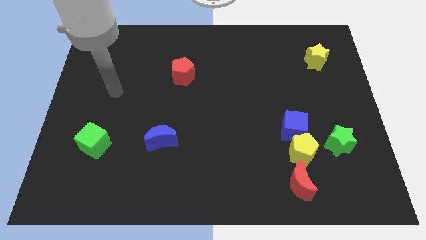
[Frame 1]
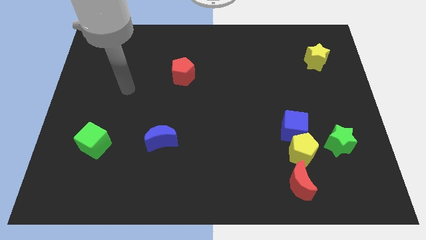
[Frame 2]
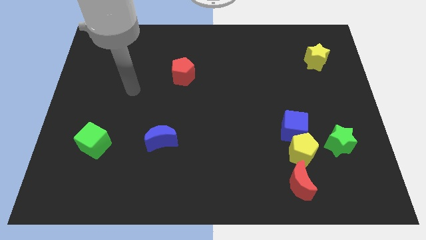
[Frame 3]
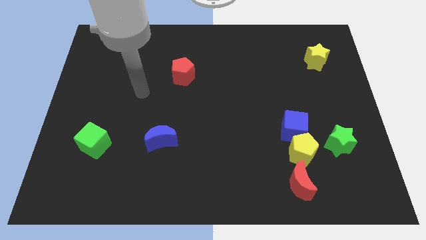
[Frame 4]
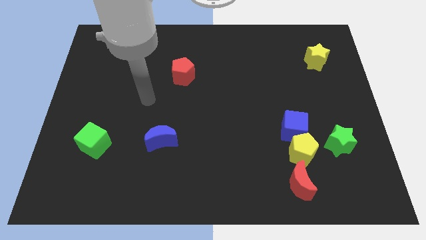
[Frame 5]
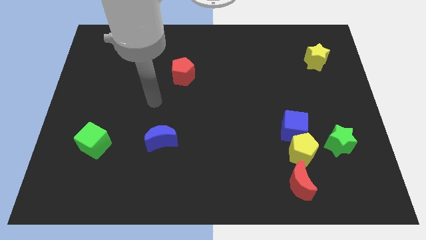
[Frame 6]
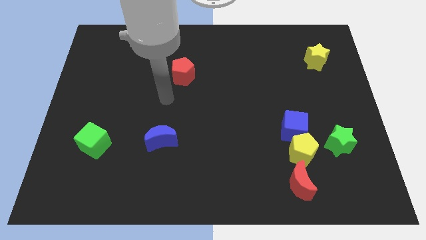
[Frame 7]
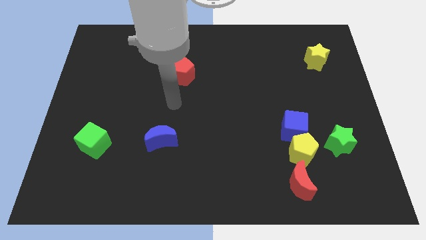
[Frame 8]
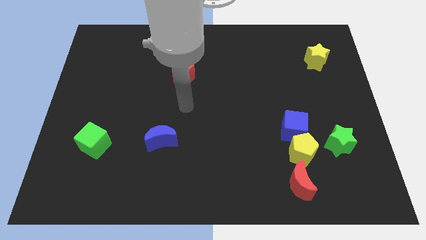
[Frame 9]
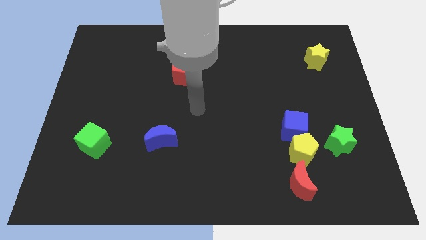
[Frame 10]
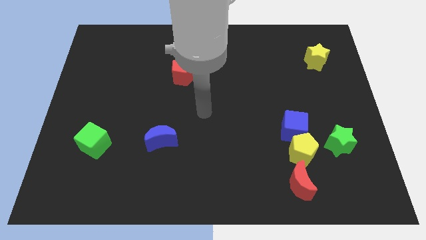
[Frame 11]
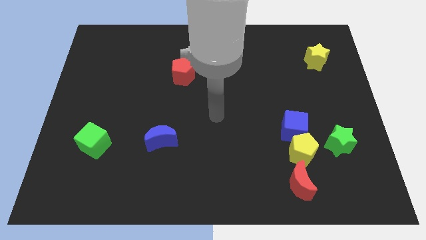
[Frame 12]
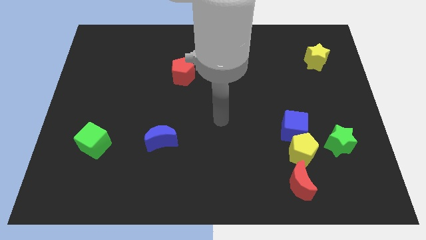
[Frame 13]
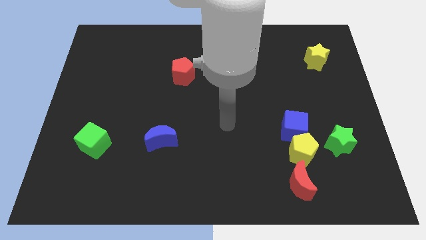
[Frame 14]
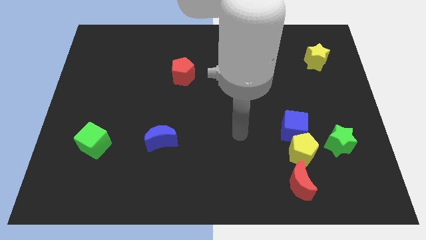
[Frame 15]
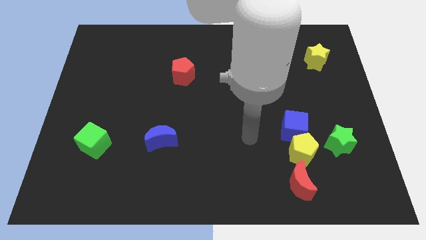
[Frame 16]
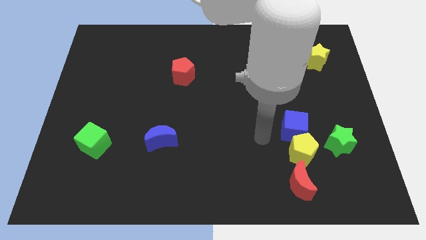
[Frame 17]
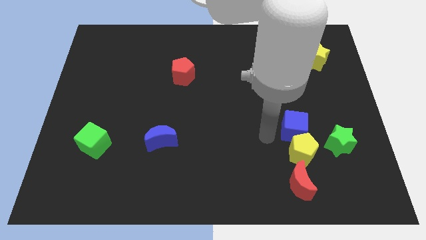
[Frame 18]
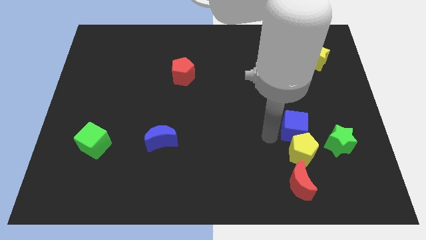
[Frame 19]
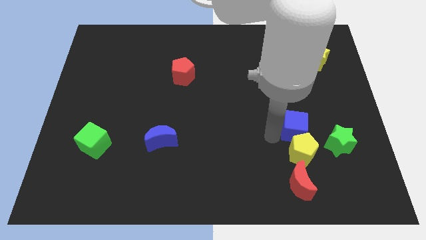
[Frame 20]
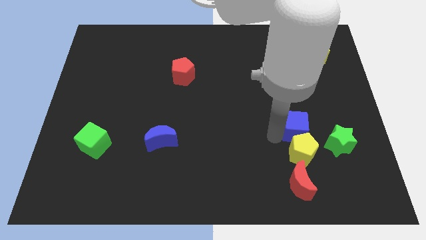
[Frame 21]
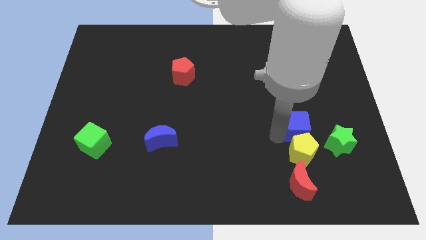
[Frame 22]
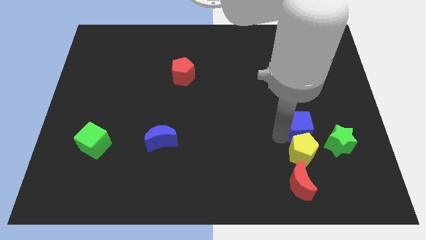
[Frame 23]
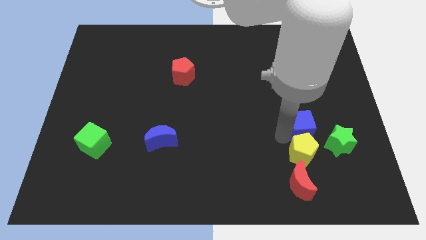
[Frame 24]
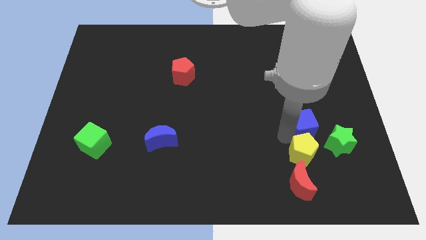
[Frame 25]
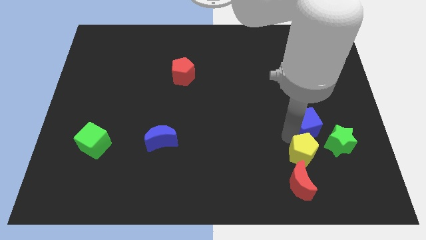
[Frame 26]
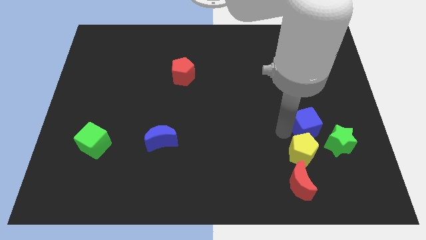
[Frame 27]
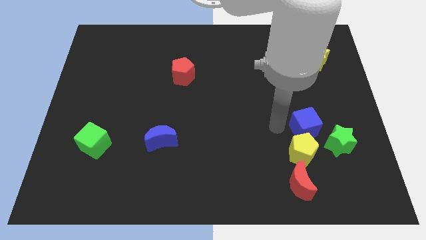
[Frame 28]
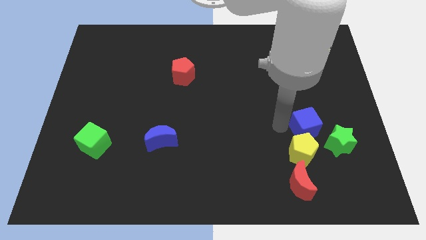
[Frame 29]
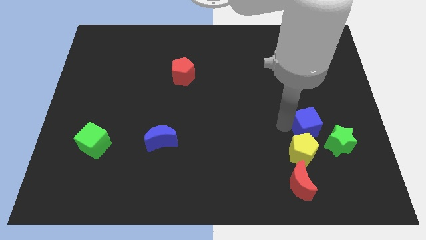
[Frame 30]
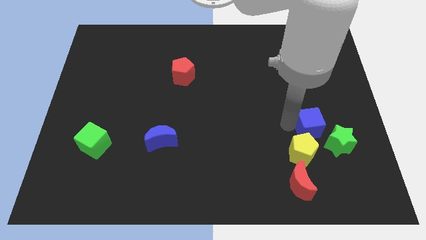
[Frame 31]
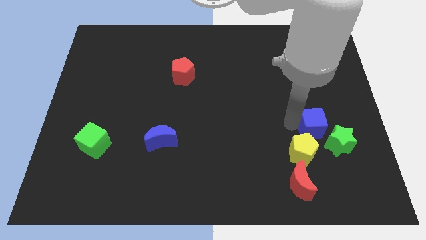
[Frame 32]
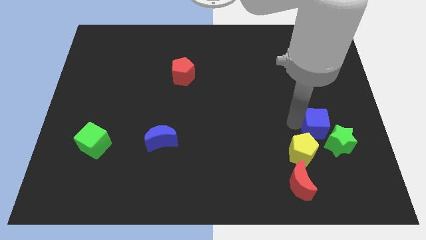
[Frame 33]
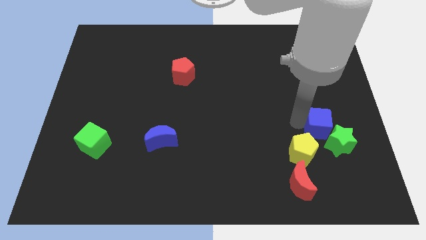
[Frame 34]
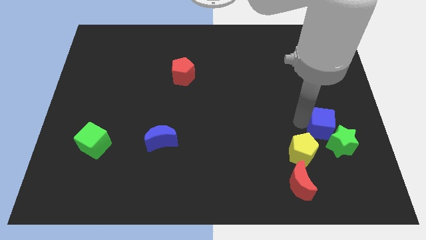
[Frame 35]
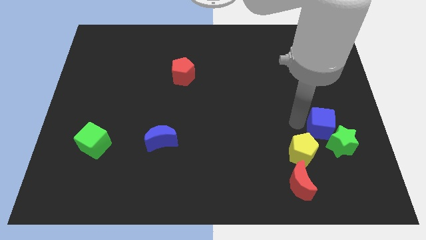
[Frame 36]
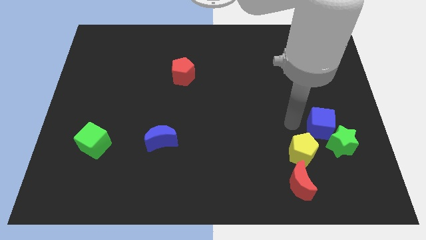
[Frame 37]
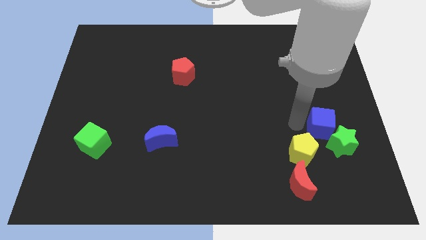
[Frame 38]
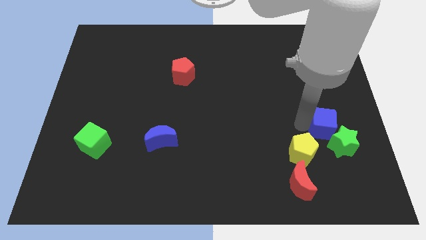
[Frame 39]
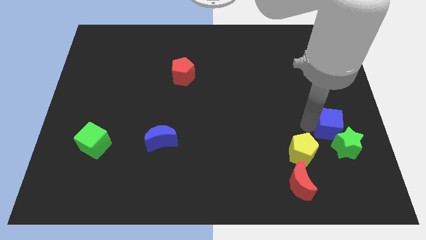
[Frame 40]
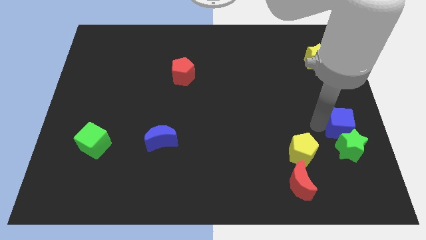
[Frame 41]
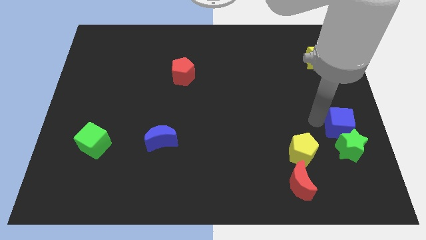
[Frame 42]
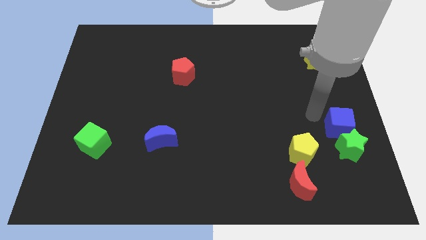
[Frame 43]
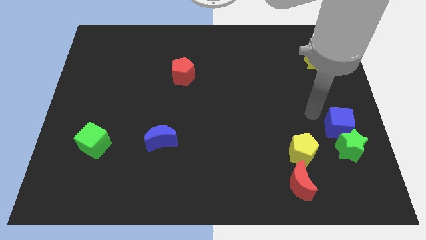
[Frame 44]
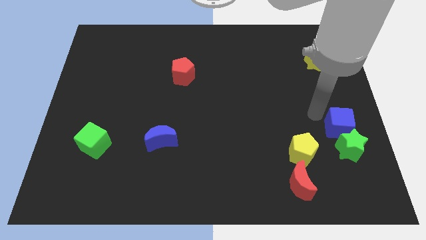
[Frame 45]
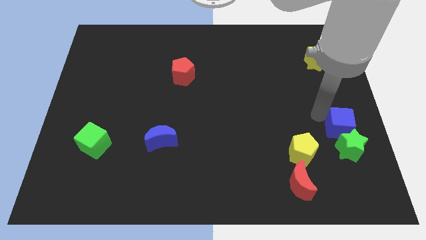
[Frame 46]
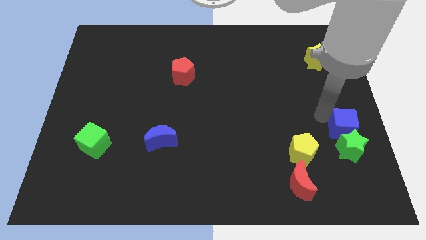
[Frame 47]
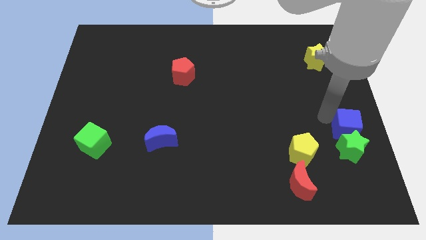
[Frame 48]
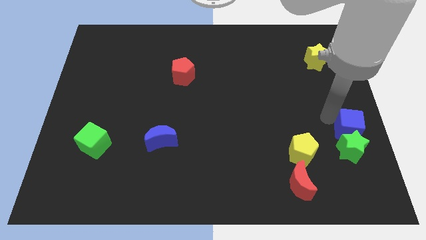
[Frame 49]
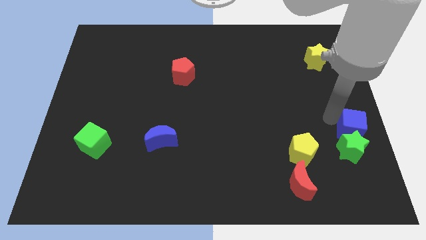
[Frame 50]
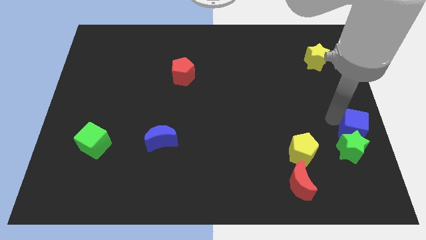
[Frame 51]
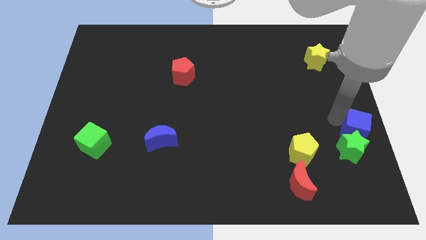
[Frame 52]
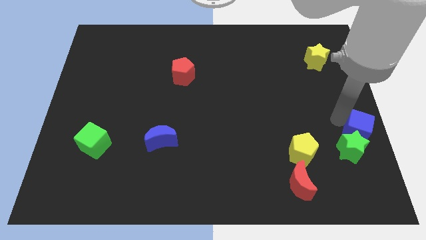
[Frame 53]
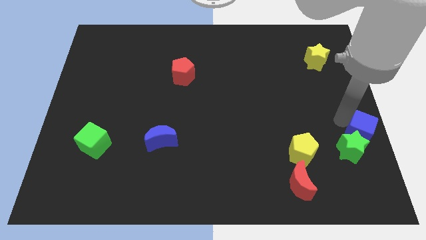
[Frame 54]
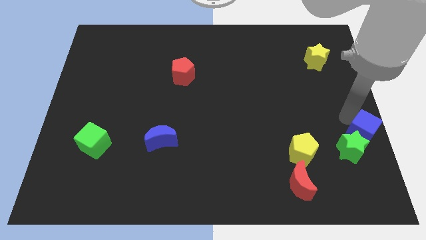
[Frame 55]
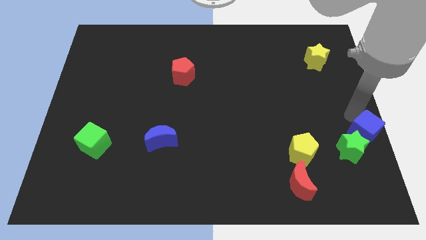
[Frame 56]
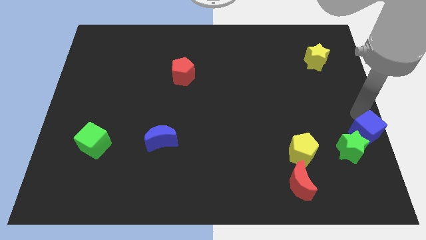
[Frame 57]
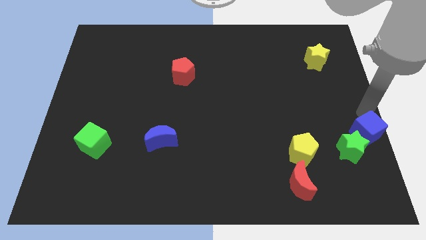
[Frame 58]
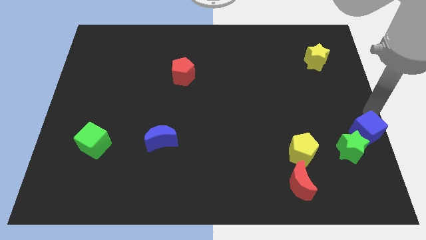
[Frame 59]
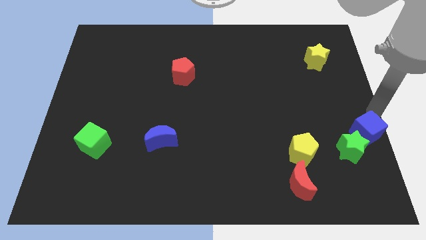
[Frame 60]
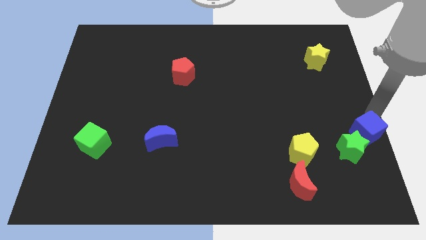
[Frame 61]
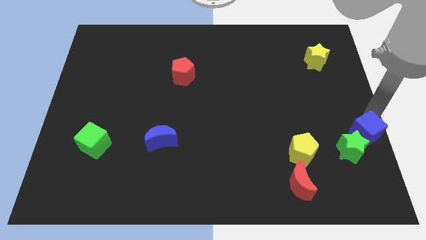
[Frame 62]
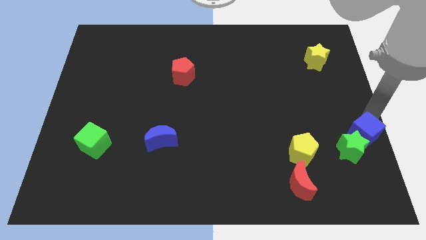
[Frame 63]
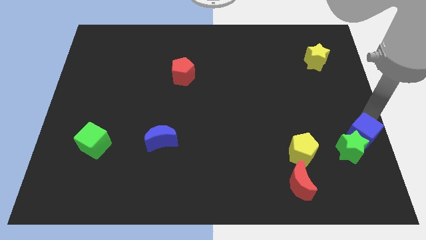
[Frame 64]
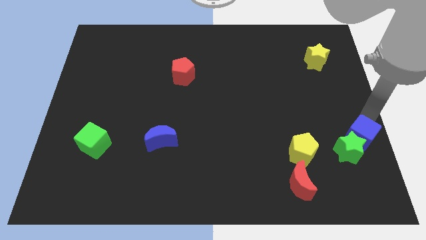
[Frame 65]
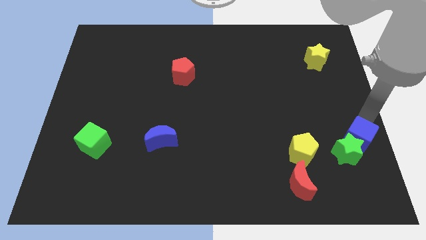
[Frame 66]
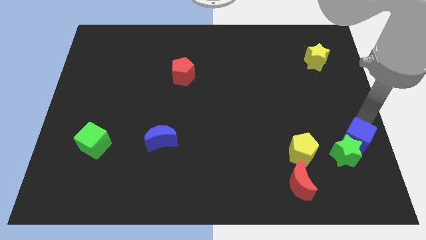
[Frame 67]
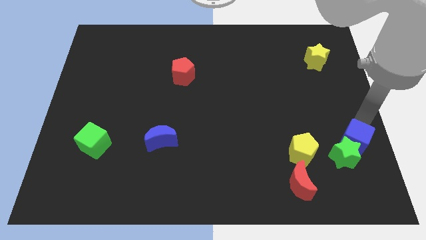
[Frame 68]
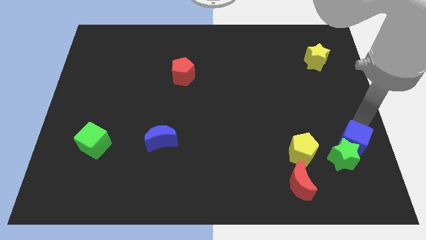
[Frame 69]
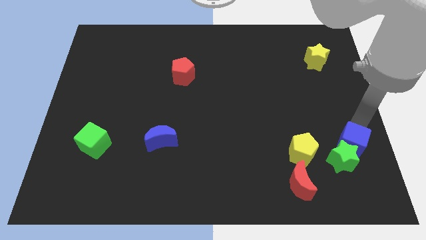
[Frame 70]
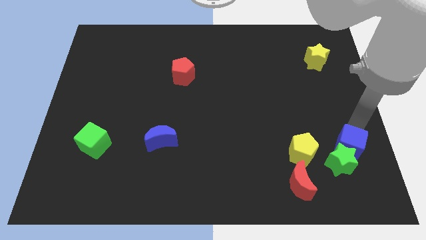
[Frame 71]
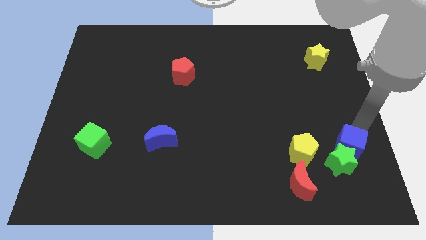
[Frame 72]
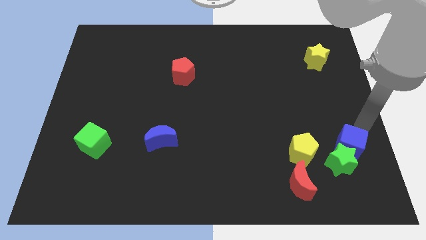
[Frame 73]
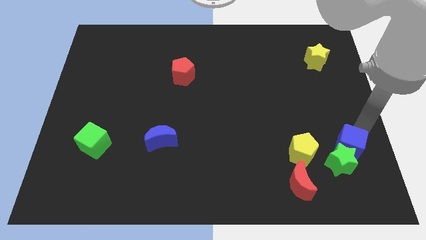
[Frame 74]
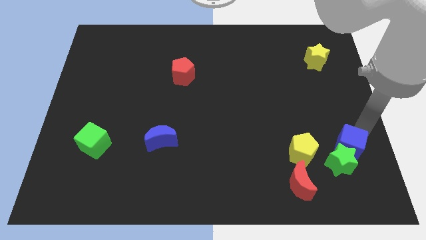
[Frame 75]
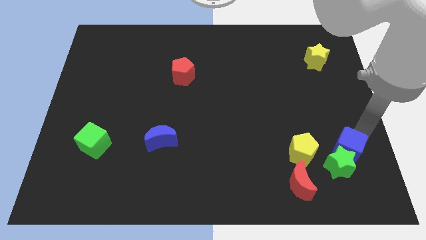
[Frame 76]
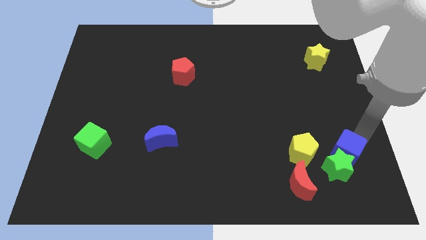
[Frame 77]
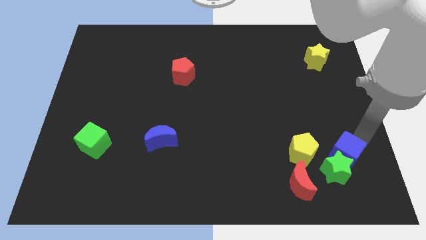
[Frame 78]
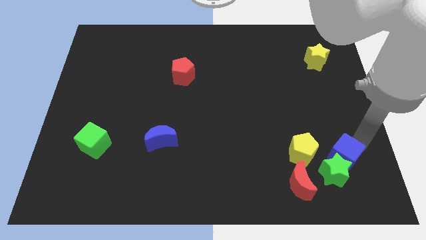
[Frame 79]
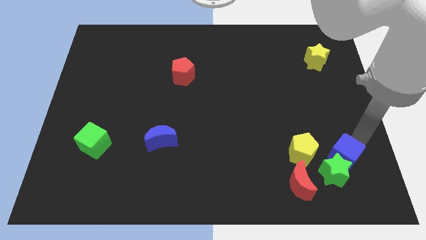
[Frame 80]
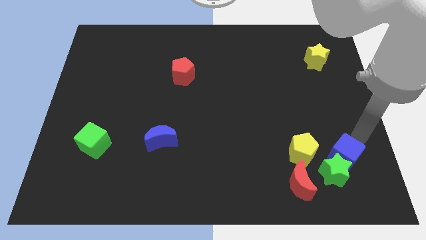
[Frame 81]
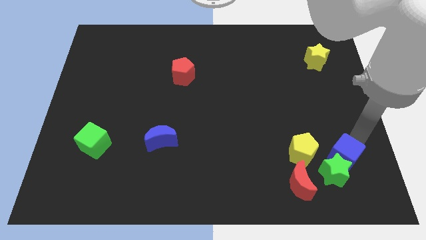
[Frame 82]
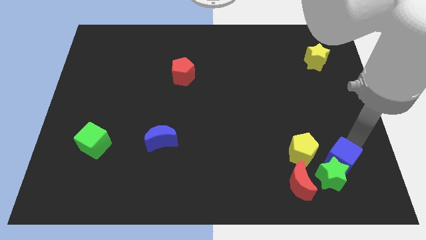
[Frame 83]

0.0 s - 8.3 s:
move the blue cube to the bottom right of the yellow pentagon
